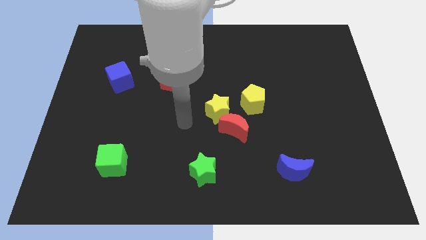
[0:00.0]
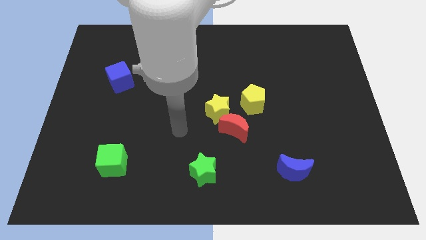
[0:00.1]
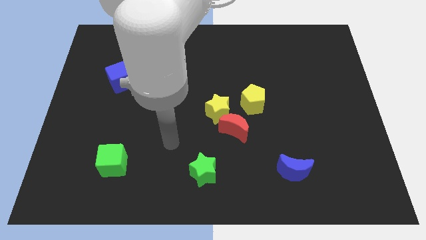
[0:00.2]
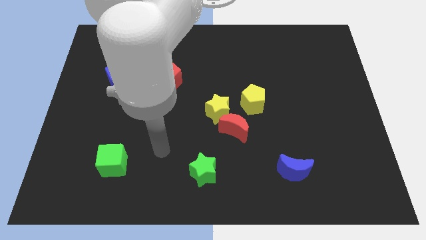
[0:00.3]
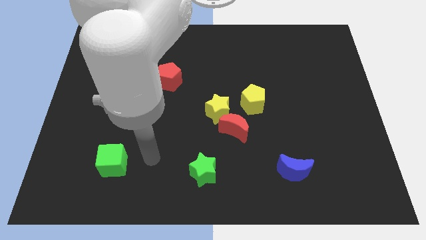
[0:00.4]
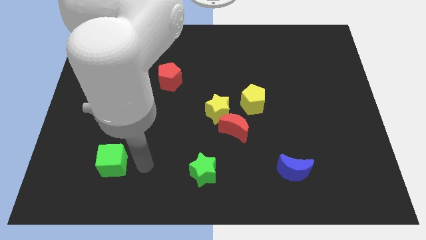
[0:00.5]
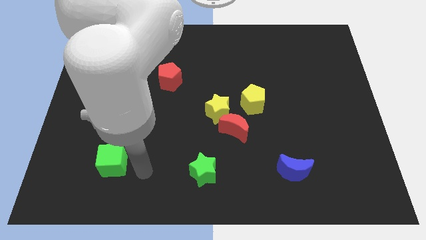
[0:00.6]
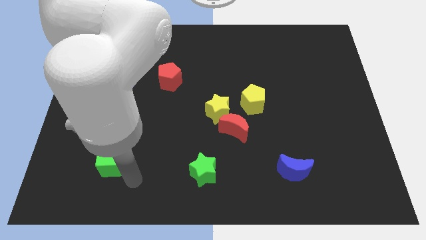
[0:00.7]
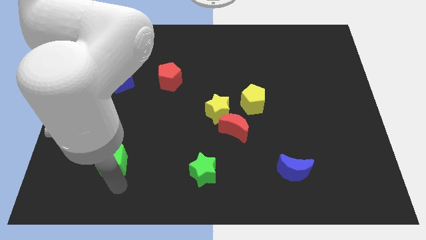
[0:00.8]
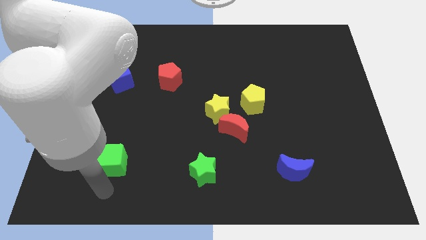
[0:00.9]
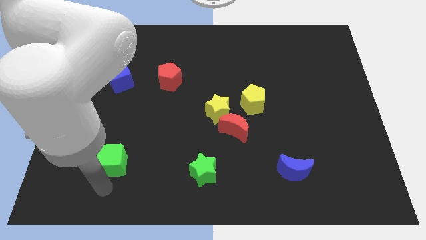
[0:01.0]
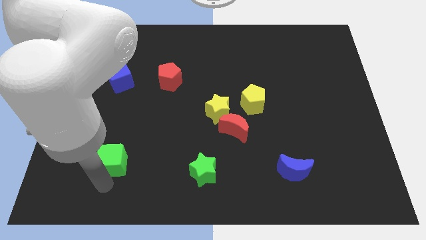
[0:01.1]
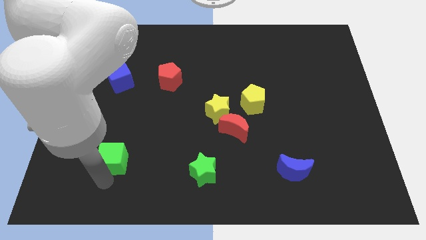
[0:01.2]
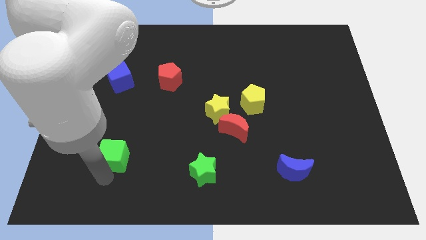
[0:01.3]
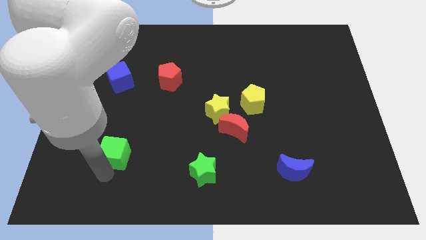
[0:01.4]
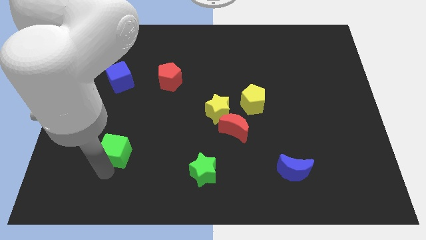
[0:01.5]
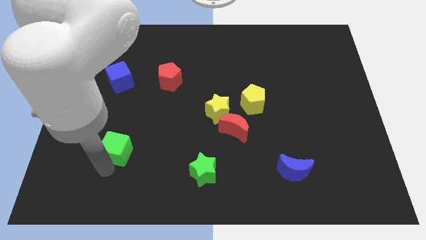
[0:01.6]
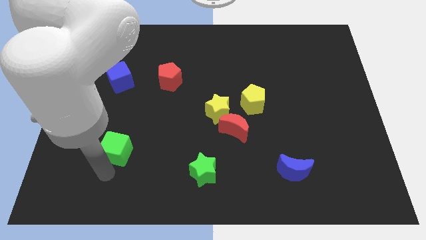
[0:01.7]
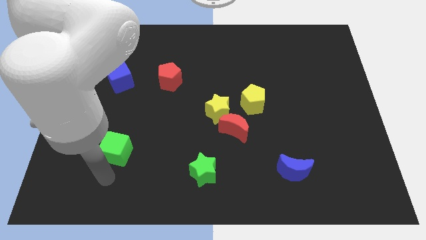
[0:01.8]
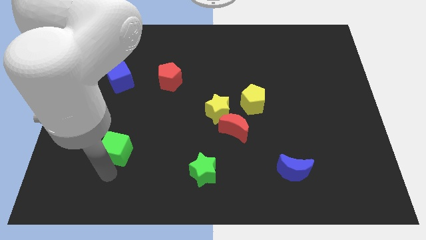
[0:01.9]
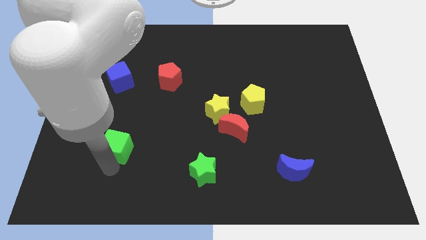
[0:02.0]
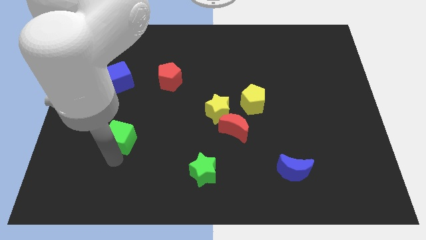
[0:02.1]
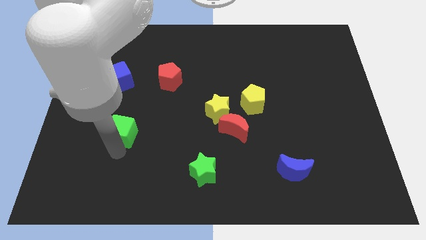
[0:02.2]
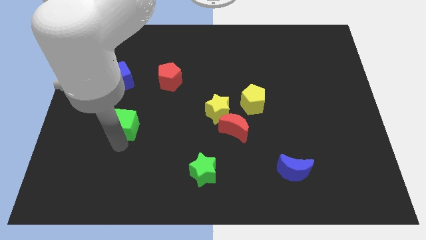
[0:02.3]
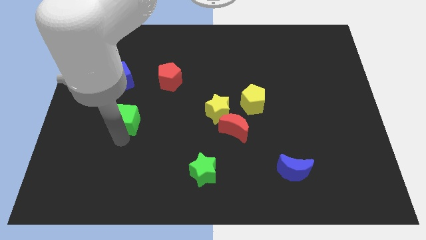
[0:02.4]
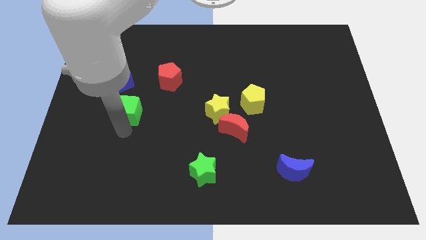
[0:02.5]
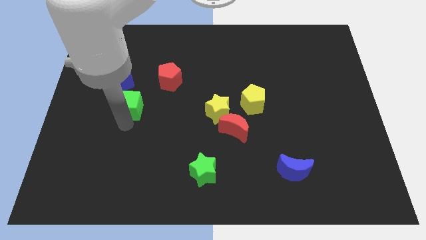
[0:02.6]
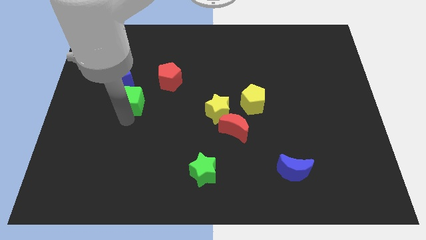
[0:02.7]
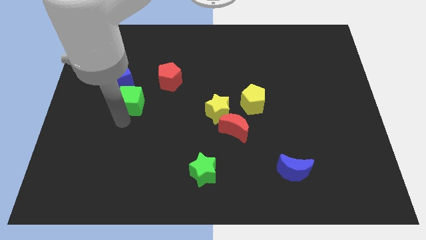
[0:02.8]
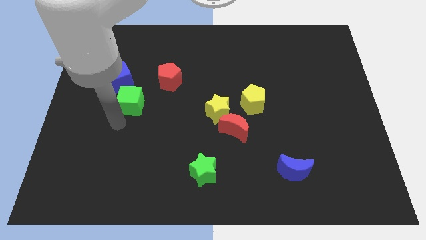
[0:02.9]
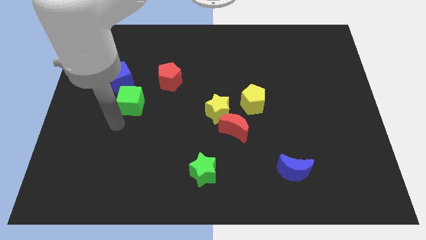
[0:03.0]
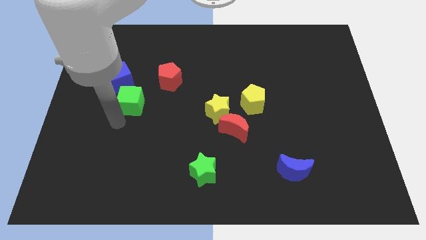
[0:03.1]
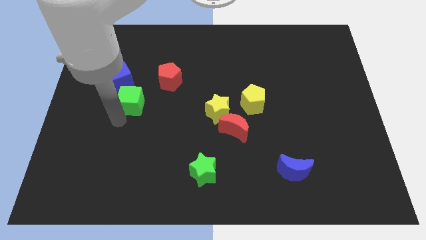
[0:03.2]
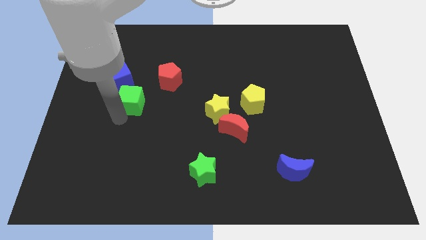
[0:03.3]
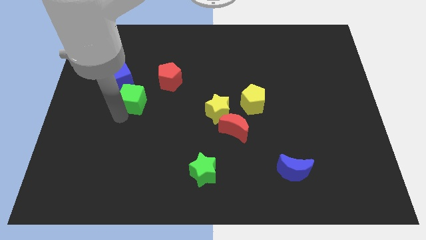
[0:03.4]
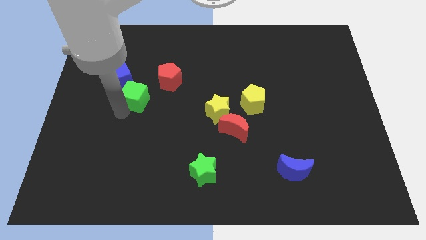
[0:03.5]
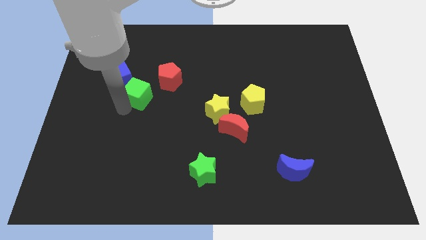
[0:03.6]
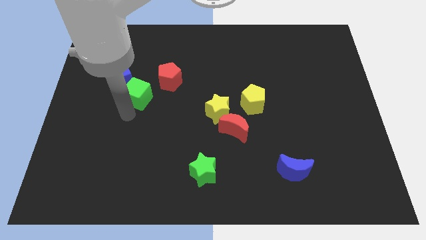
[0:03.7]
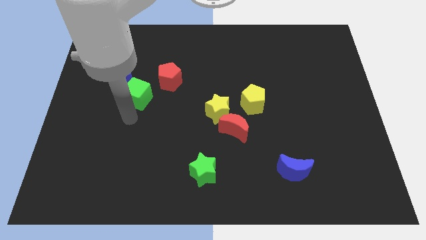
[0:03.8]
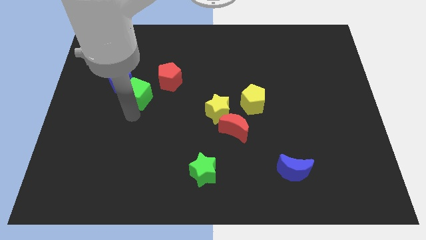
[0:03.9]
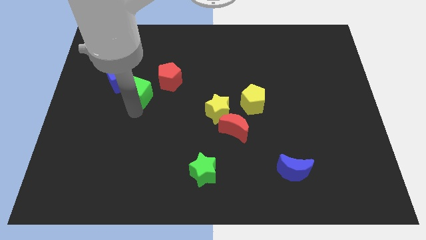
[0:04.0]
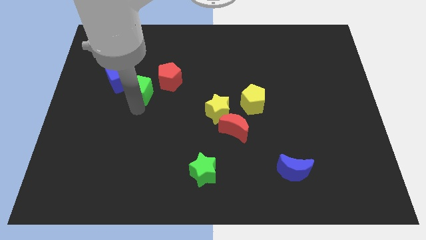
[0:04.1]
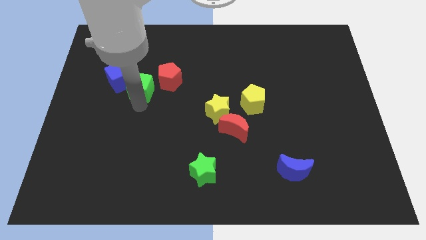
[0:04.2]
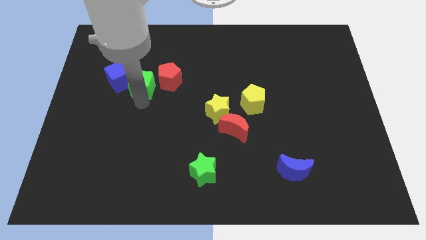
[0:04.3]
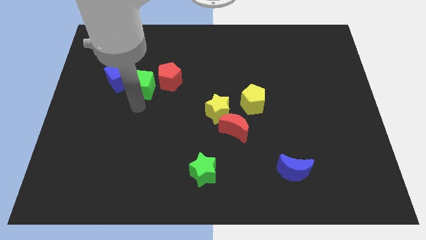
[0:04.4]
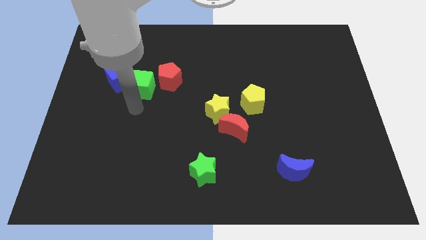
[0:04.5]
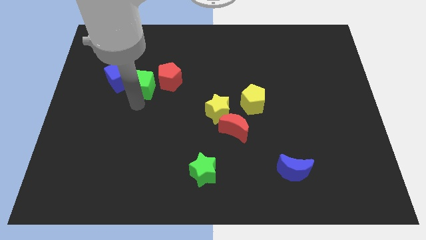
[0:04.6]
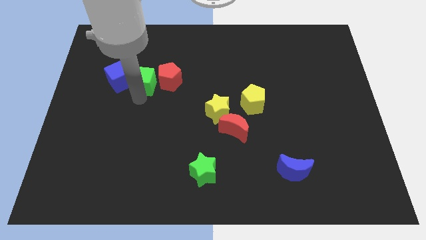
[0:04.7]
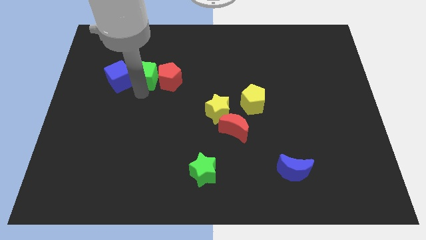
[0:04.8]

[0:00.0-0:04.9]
slide the green cube to the top left side of the red pentagon

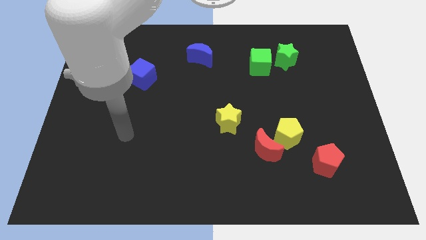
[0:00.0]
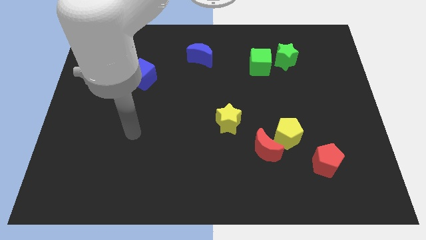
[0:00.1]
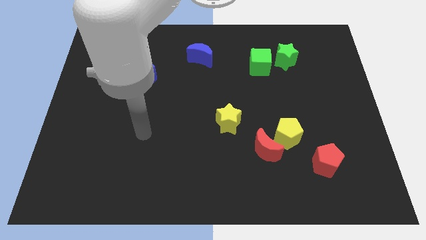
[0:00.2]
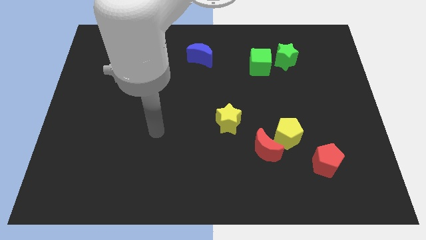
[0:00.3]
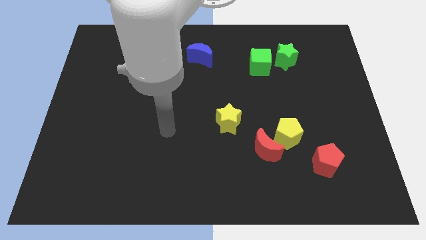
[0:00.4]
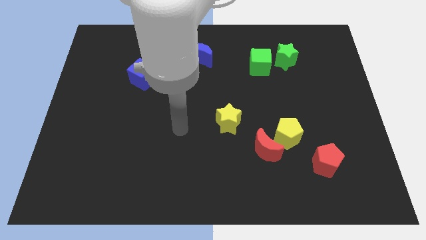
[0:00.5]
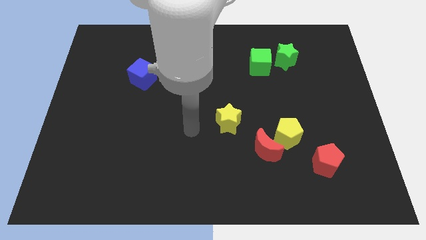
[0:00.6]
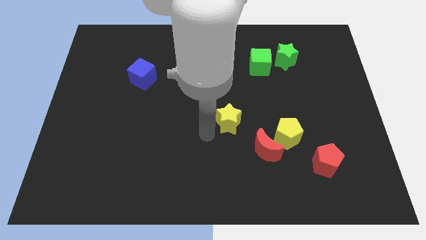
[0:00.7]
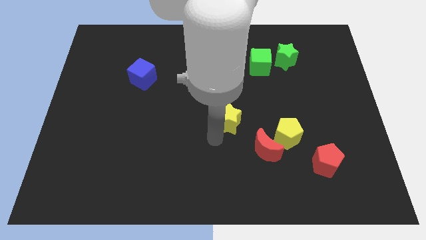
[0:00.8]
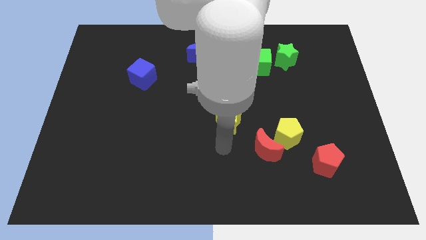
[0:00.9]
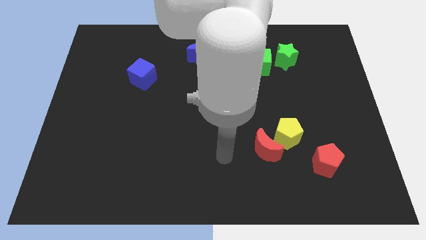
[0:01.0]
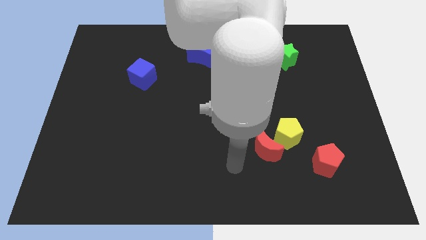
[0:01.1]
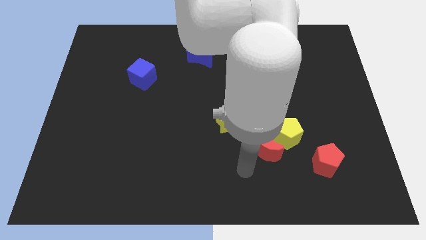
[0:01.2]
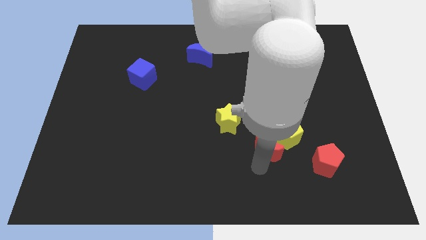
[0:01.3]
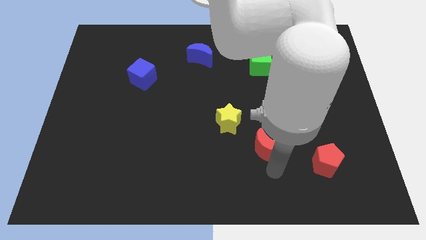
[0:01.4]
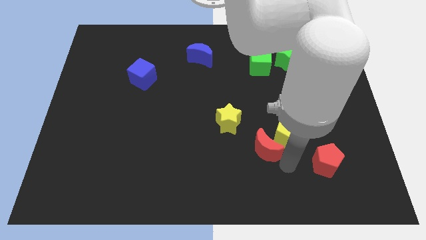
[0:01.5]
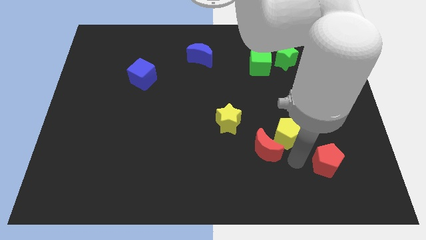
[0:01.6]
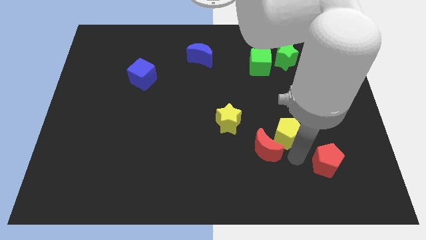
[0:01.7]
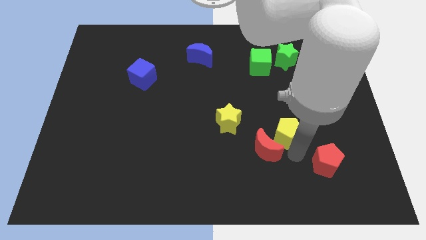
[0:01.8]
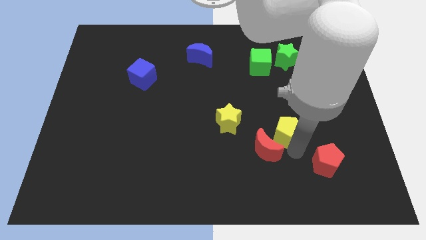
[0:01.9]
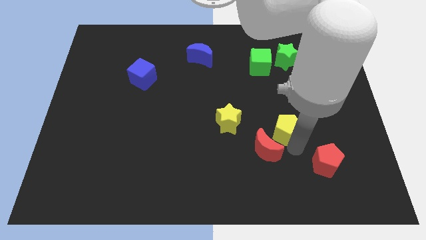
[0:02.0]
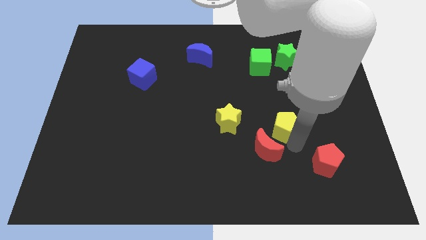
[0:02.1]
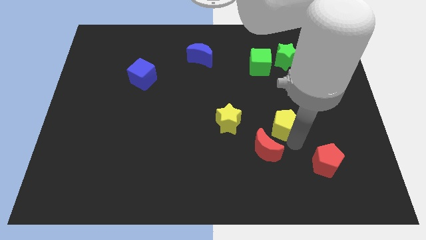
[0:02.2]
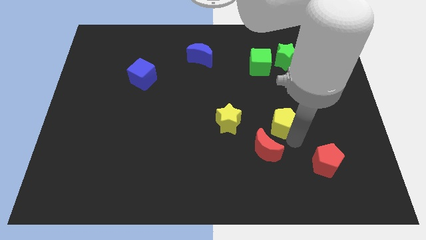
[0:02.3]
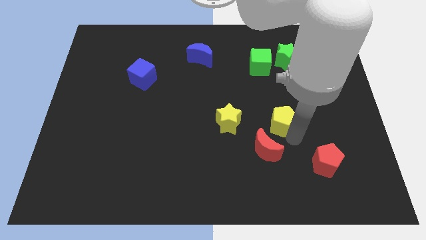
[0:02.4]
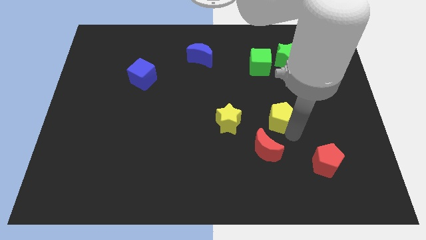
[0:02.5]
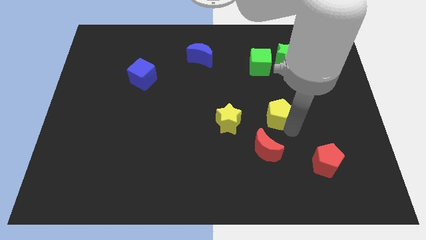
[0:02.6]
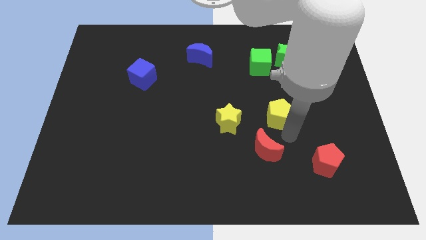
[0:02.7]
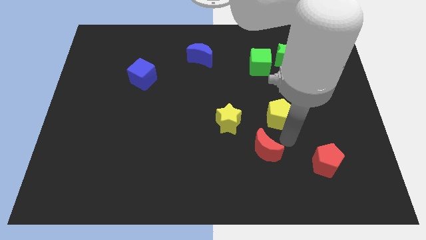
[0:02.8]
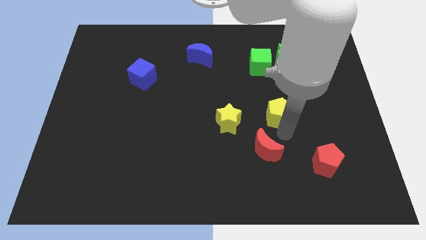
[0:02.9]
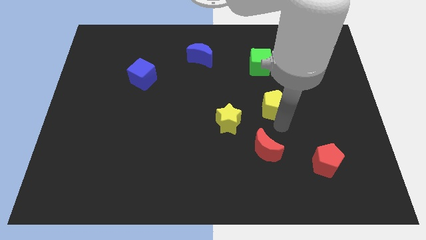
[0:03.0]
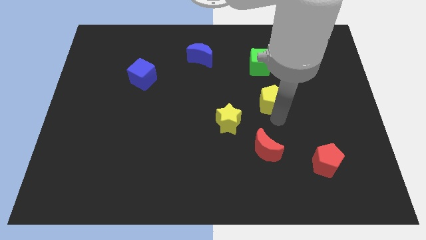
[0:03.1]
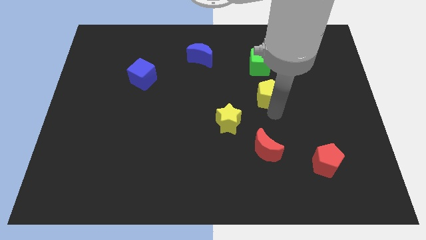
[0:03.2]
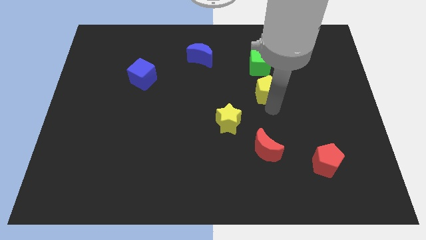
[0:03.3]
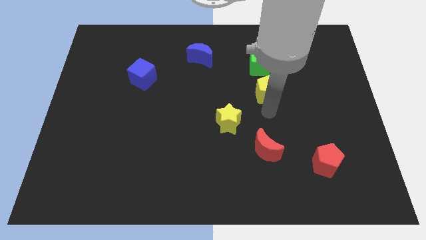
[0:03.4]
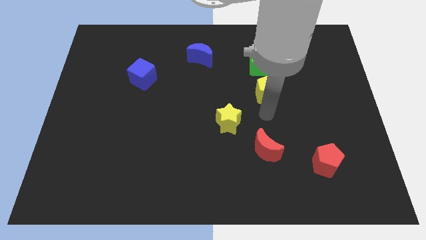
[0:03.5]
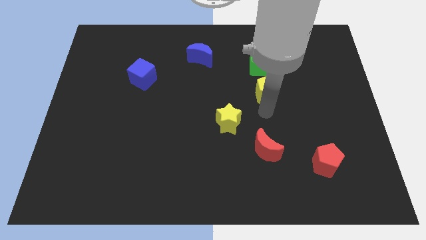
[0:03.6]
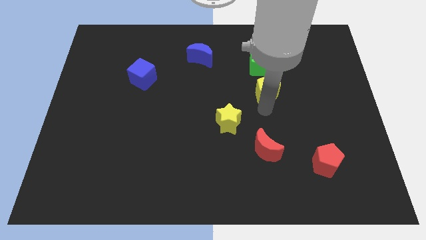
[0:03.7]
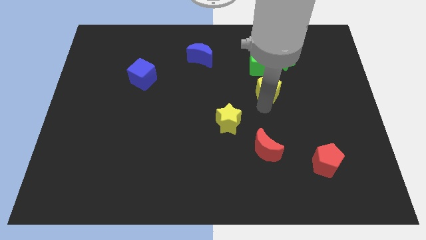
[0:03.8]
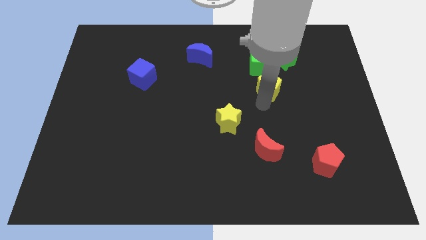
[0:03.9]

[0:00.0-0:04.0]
push the yellow pentagon to the bottom left side of the green star
